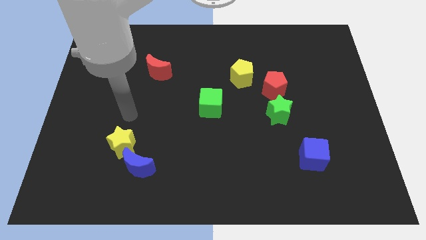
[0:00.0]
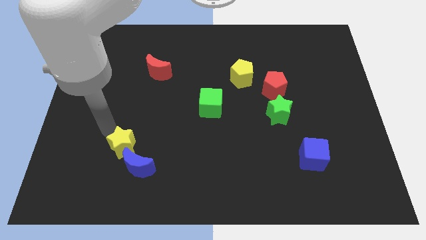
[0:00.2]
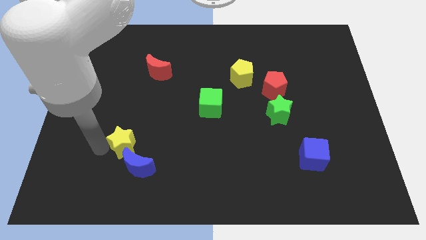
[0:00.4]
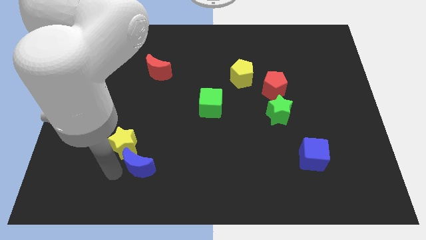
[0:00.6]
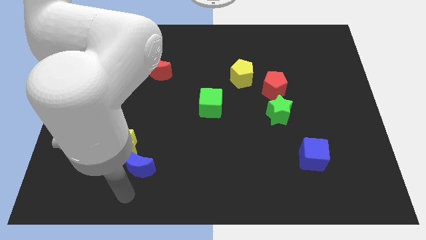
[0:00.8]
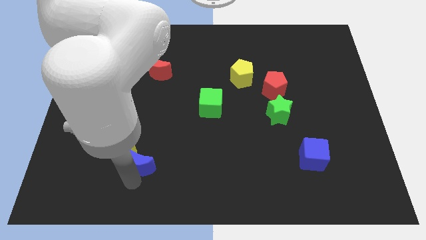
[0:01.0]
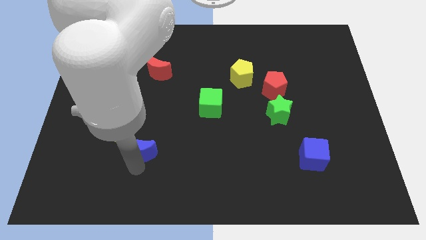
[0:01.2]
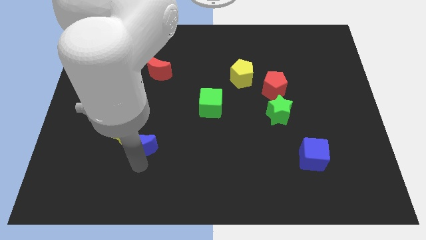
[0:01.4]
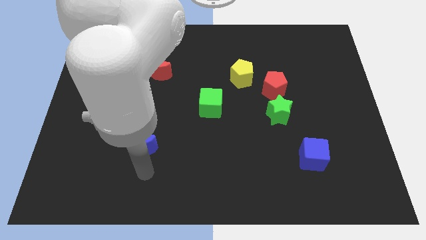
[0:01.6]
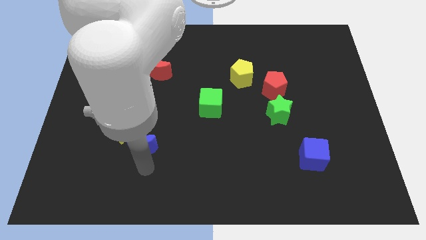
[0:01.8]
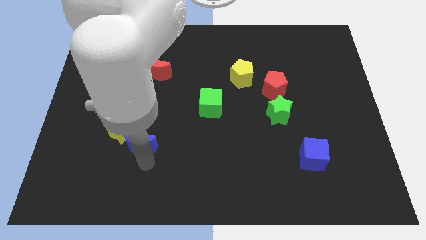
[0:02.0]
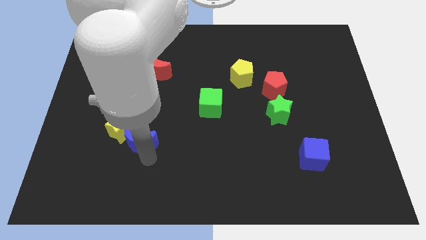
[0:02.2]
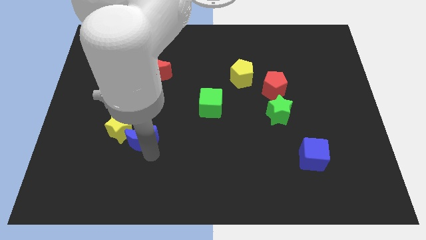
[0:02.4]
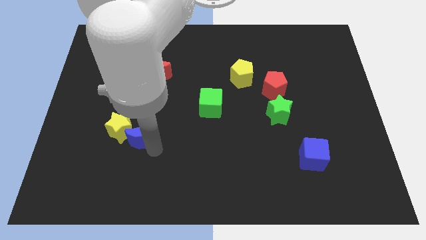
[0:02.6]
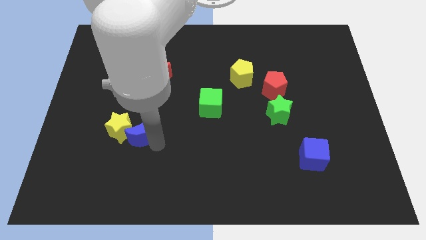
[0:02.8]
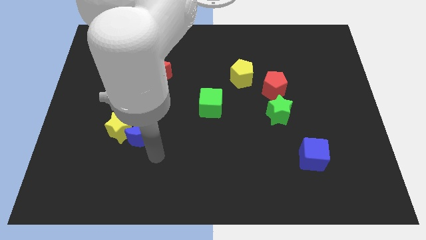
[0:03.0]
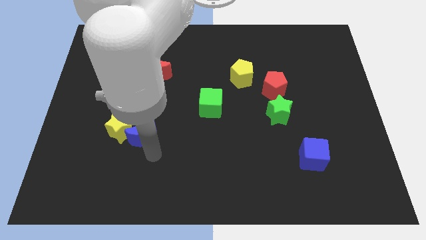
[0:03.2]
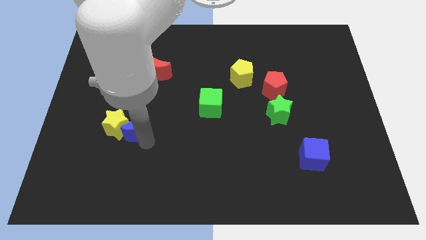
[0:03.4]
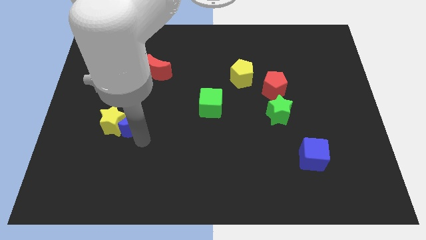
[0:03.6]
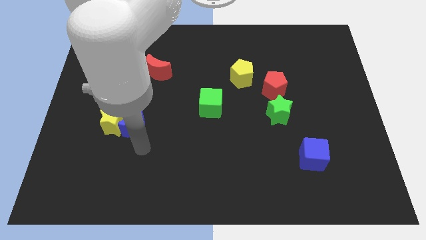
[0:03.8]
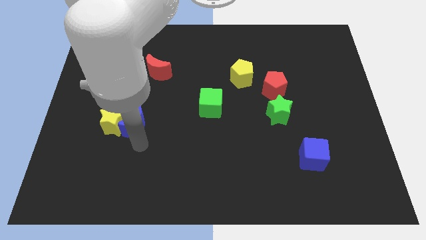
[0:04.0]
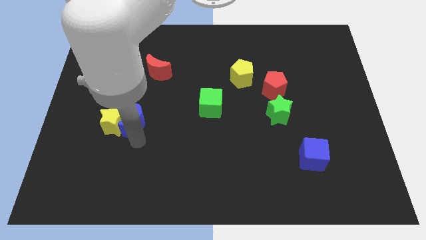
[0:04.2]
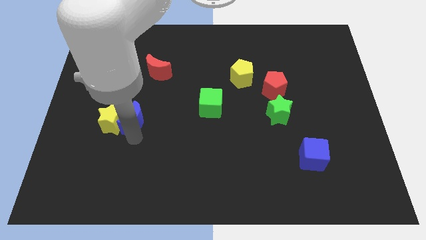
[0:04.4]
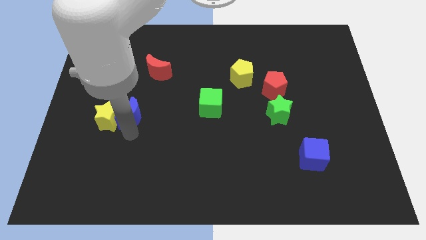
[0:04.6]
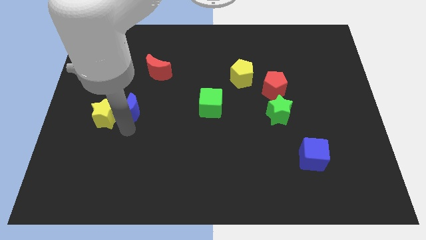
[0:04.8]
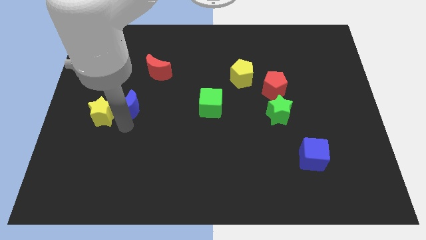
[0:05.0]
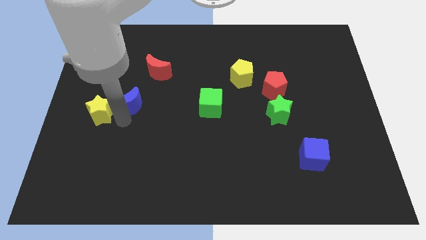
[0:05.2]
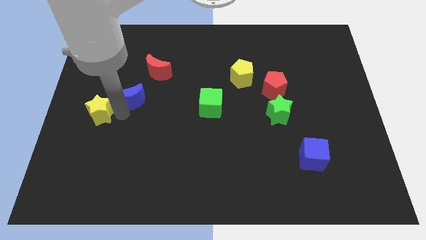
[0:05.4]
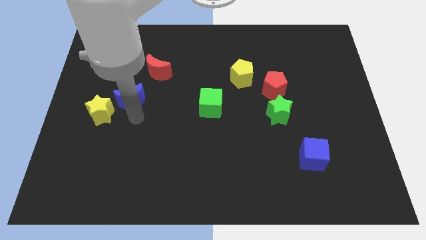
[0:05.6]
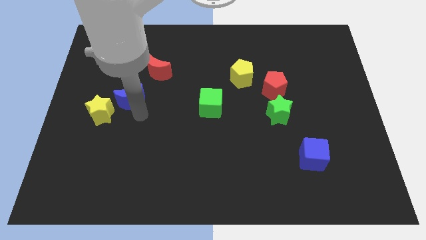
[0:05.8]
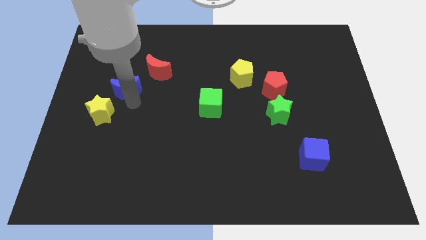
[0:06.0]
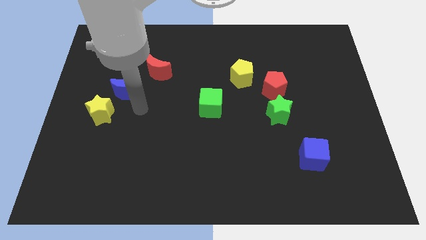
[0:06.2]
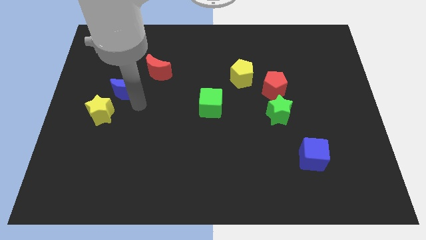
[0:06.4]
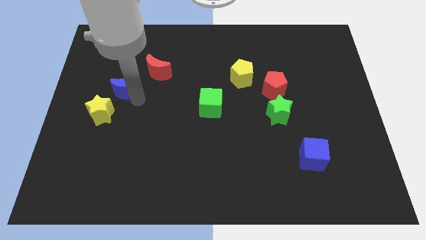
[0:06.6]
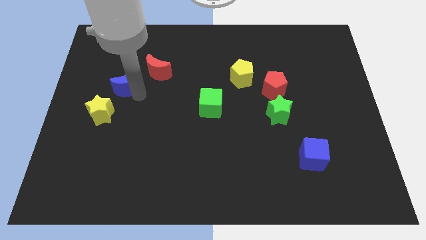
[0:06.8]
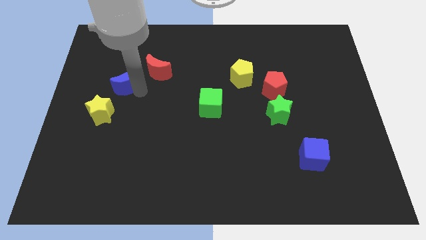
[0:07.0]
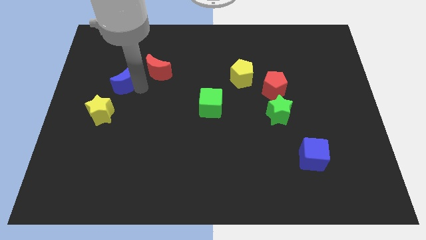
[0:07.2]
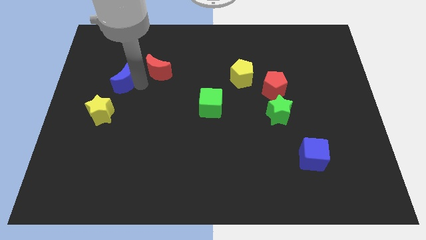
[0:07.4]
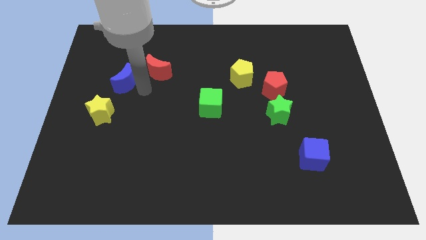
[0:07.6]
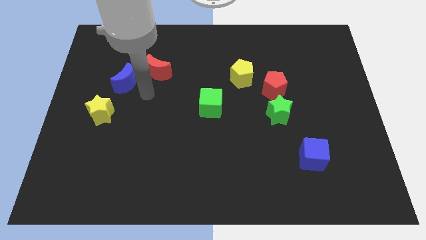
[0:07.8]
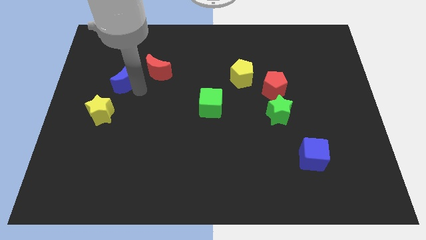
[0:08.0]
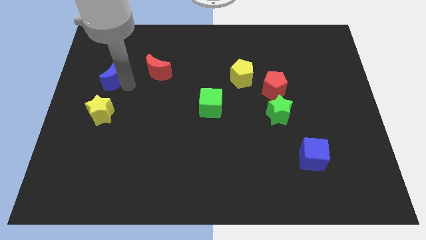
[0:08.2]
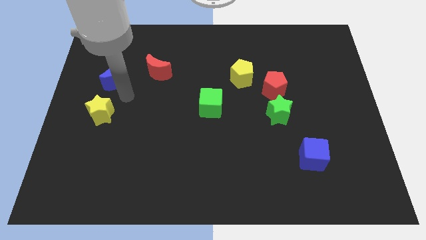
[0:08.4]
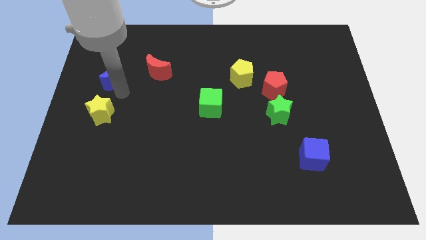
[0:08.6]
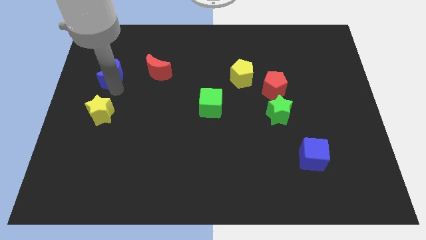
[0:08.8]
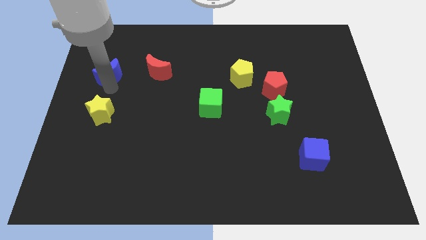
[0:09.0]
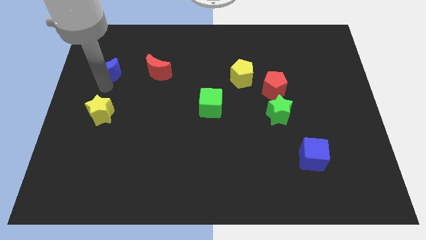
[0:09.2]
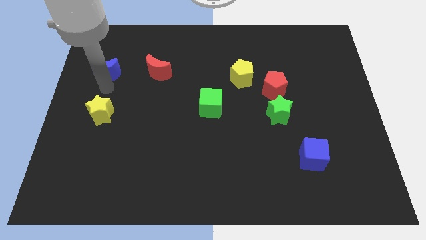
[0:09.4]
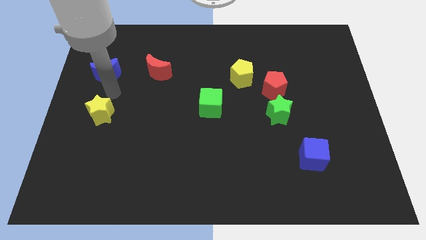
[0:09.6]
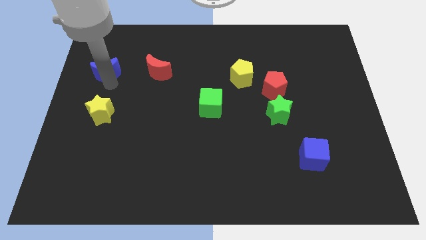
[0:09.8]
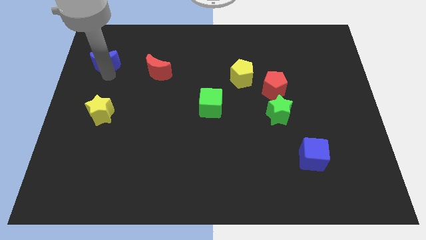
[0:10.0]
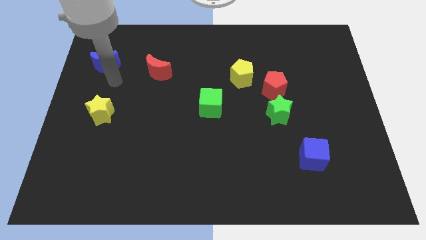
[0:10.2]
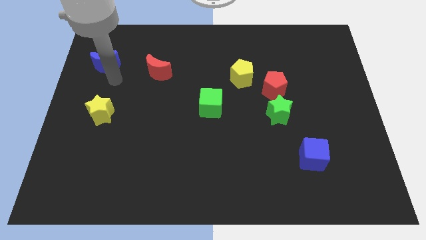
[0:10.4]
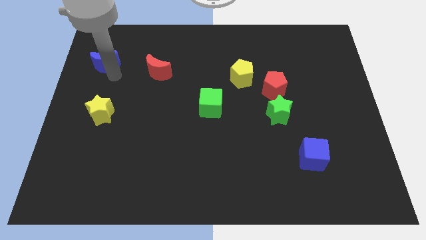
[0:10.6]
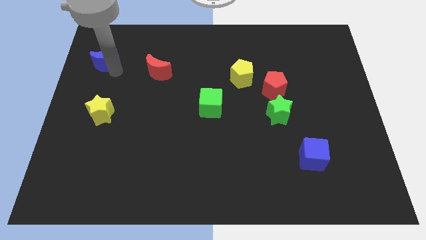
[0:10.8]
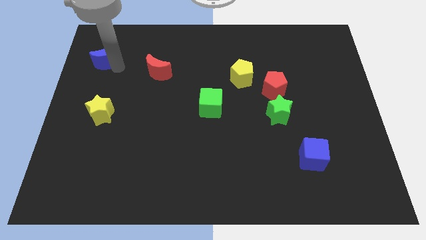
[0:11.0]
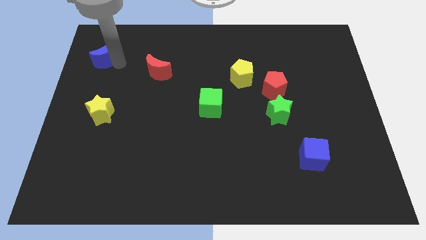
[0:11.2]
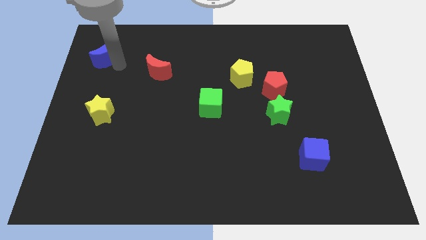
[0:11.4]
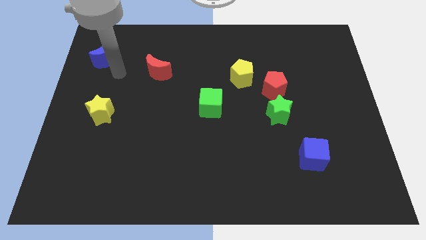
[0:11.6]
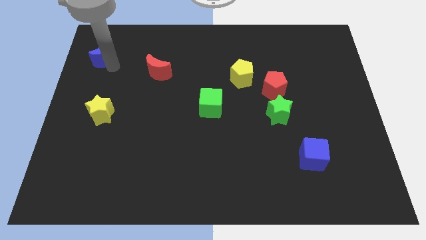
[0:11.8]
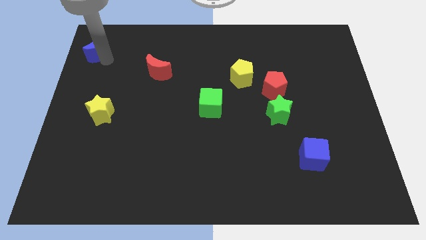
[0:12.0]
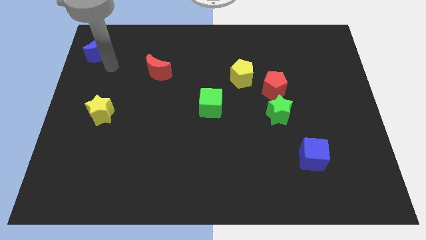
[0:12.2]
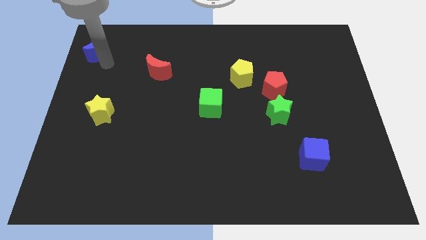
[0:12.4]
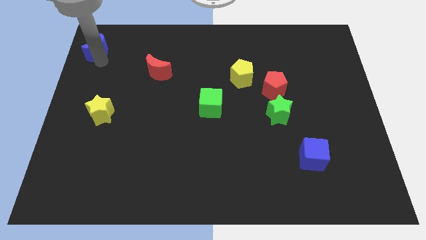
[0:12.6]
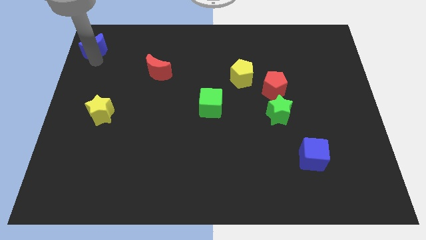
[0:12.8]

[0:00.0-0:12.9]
push the blue moon to the top left
